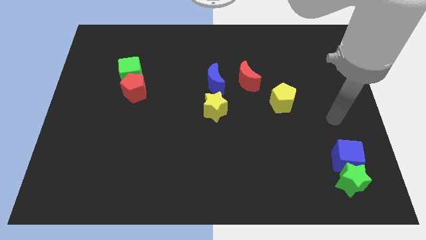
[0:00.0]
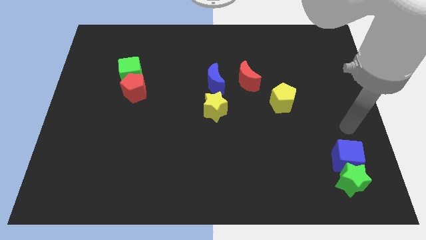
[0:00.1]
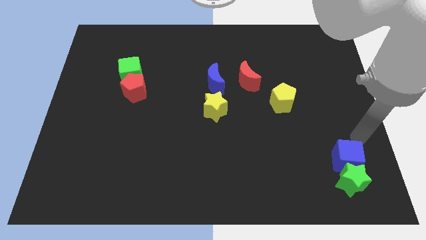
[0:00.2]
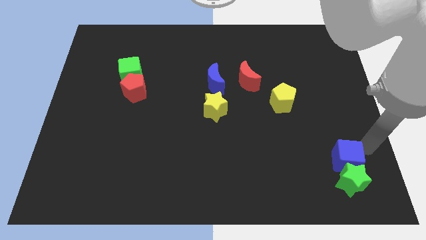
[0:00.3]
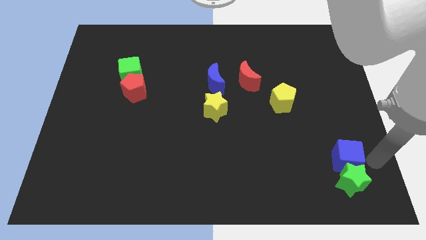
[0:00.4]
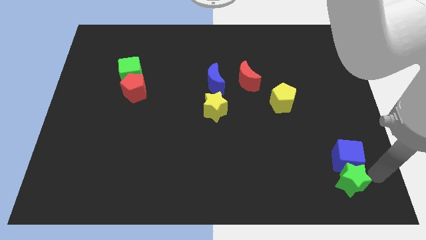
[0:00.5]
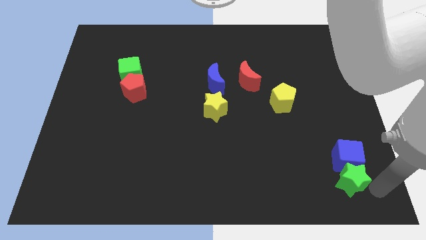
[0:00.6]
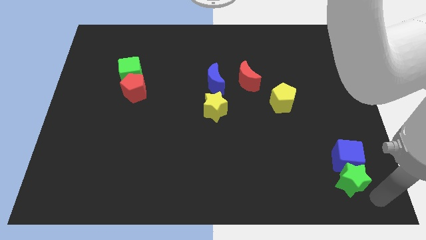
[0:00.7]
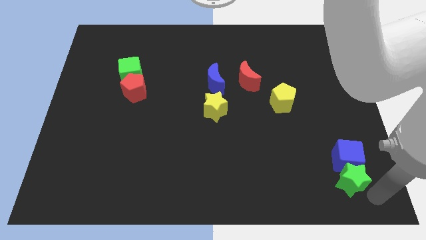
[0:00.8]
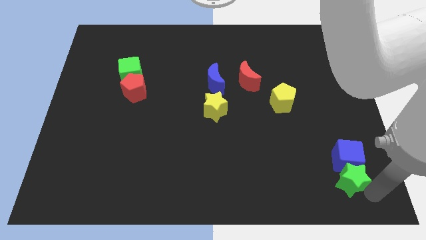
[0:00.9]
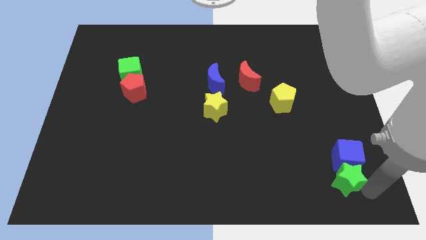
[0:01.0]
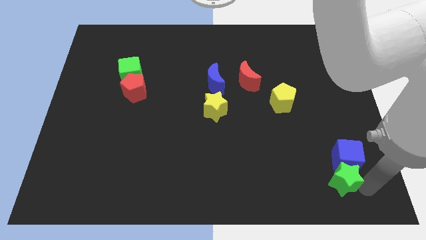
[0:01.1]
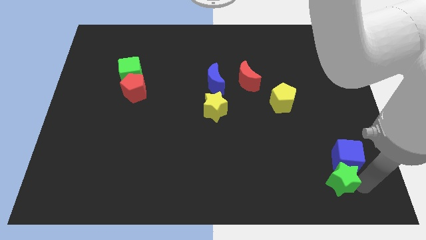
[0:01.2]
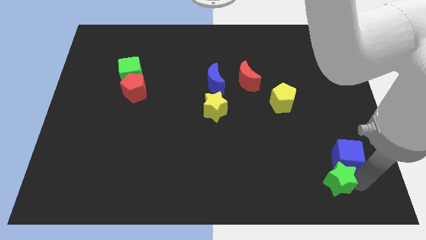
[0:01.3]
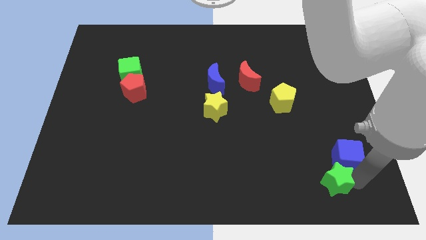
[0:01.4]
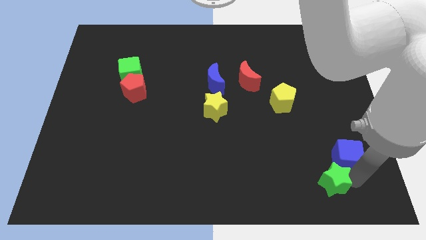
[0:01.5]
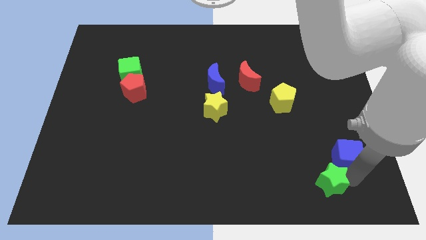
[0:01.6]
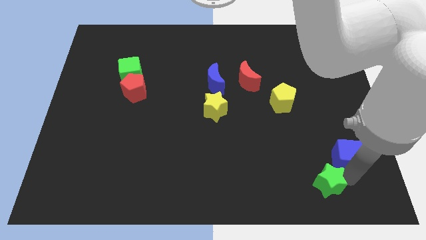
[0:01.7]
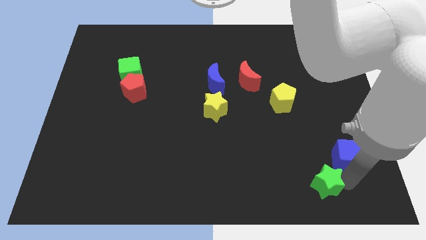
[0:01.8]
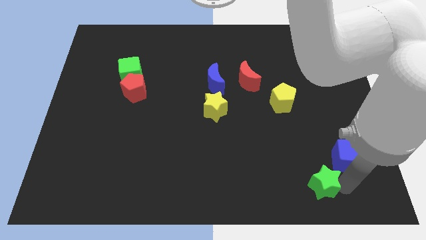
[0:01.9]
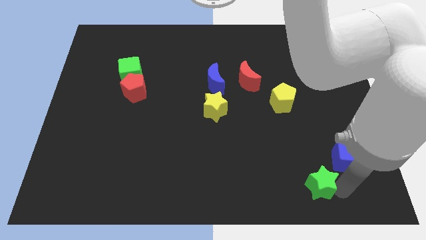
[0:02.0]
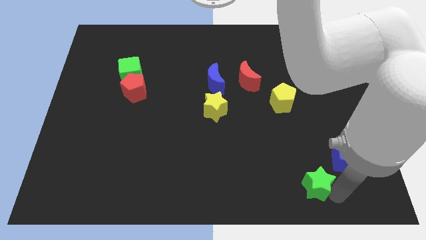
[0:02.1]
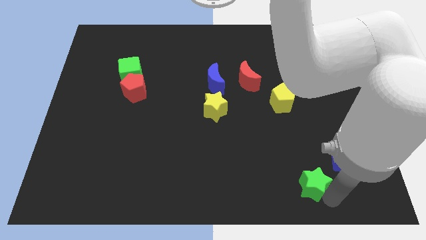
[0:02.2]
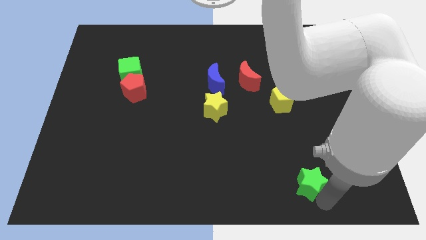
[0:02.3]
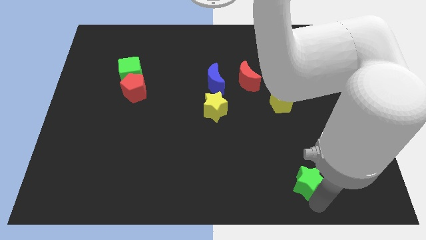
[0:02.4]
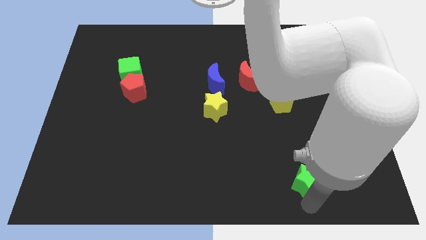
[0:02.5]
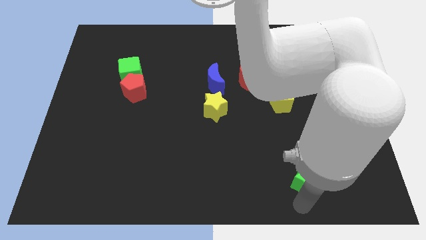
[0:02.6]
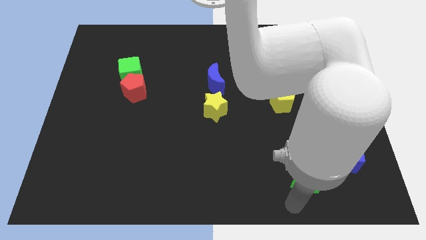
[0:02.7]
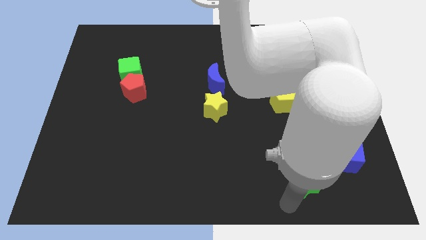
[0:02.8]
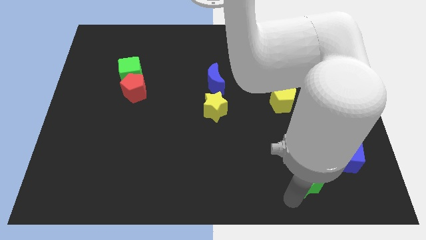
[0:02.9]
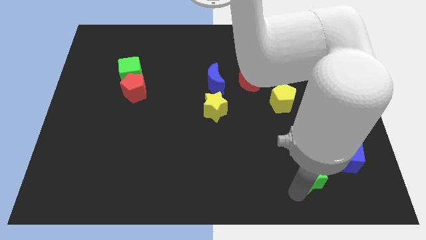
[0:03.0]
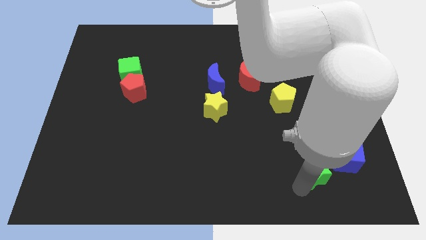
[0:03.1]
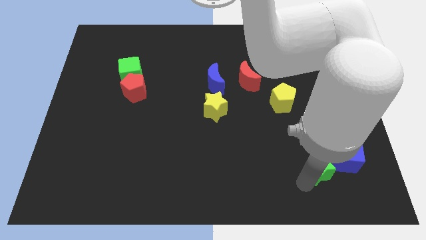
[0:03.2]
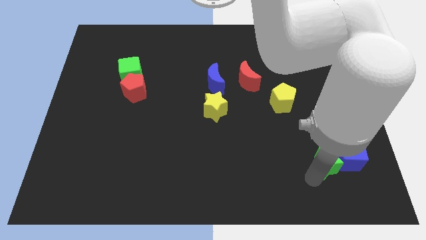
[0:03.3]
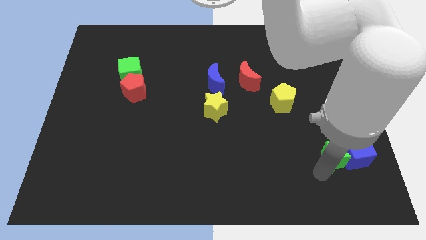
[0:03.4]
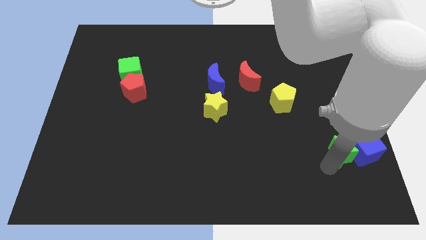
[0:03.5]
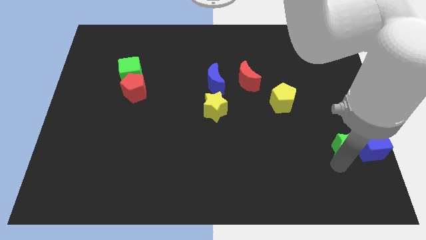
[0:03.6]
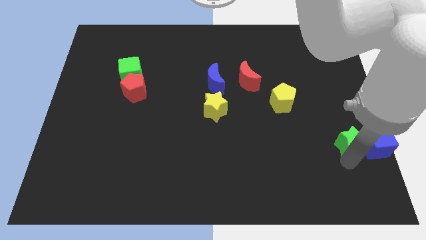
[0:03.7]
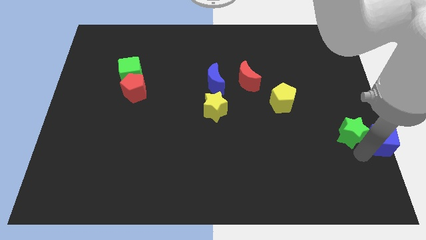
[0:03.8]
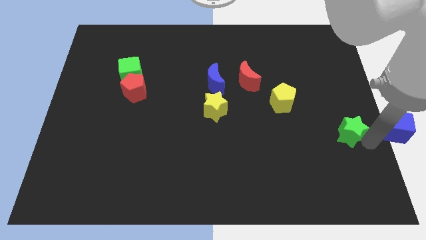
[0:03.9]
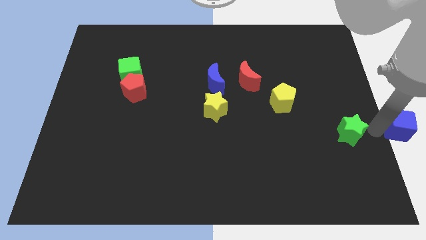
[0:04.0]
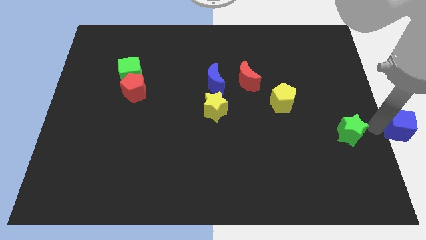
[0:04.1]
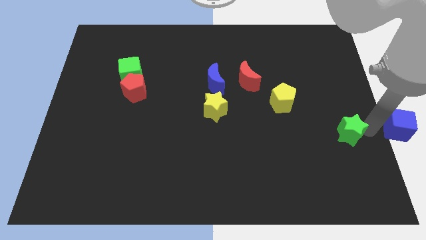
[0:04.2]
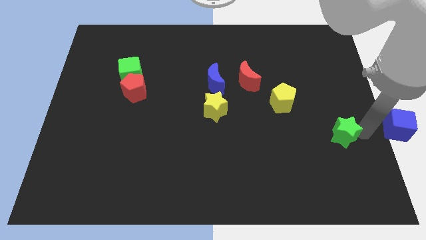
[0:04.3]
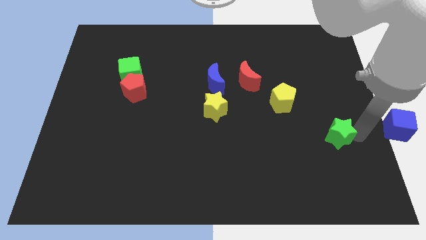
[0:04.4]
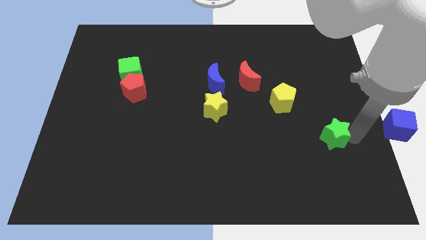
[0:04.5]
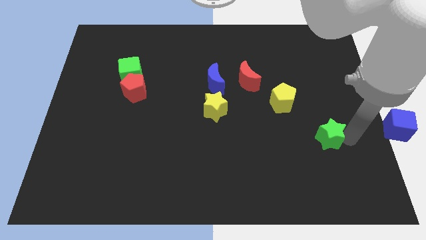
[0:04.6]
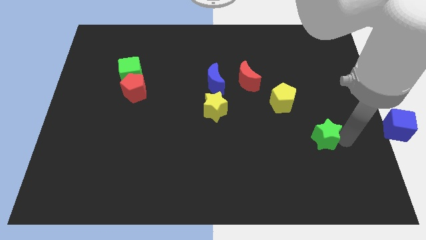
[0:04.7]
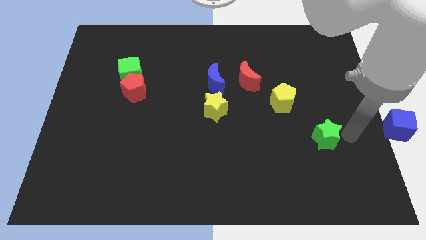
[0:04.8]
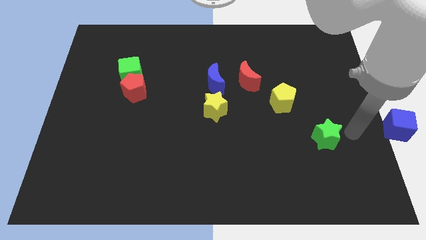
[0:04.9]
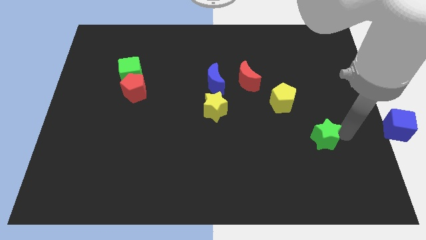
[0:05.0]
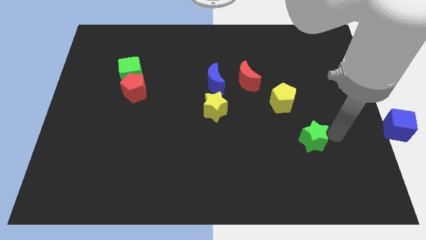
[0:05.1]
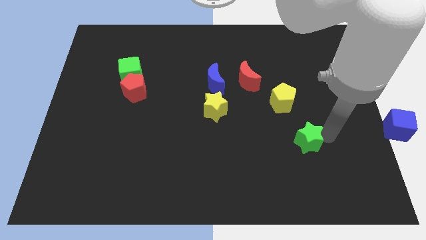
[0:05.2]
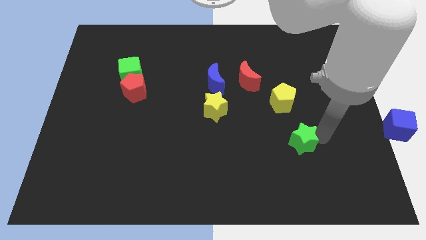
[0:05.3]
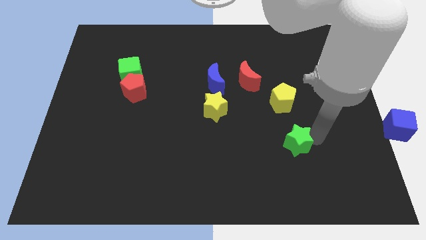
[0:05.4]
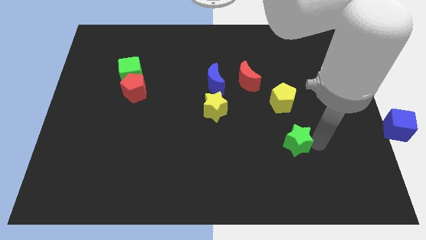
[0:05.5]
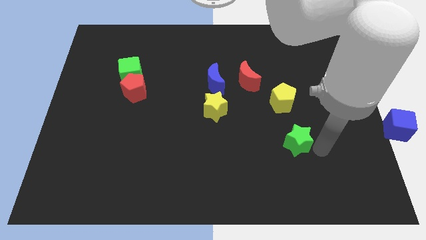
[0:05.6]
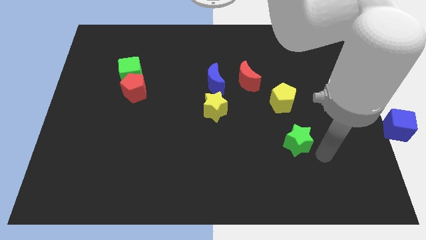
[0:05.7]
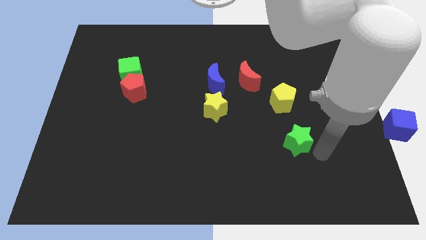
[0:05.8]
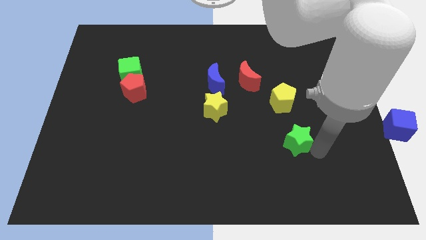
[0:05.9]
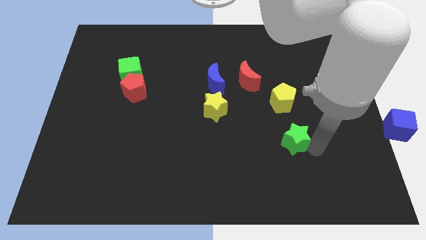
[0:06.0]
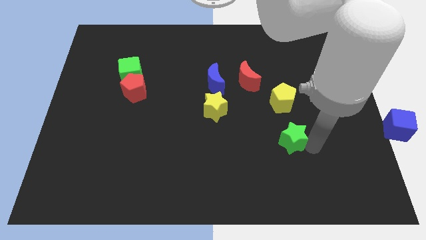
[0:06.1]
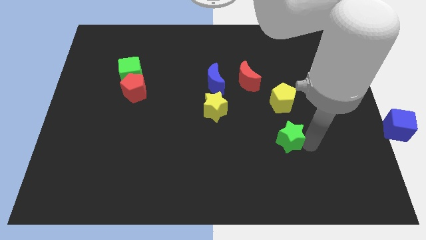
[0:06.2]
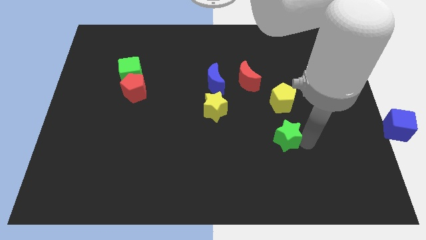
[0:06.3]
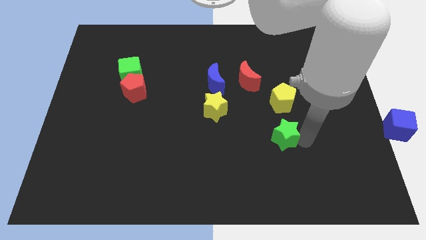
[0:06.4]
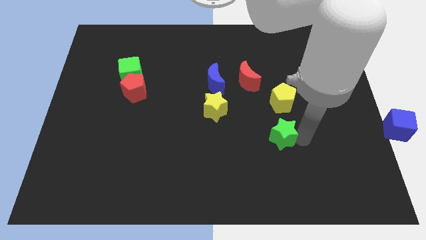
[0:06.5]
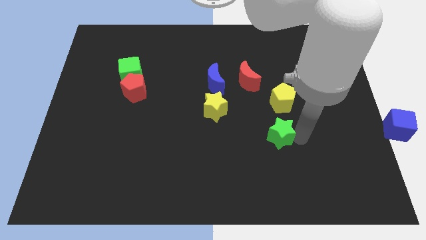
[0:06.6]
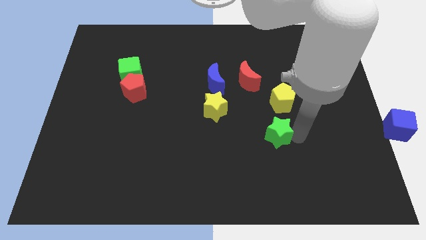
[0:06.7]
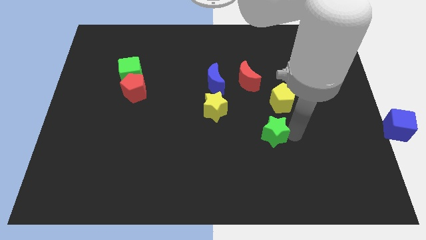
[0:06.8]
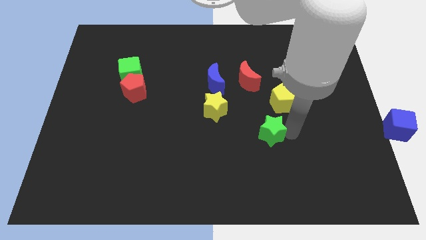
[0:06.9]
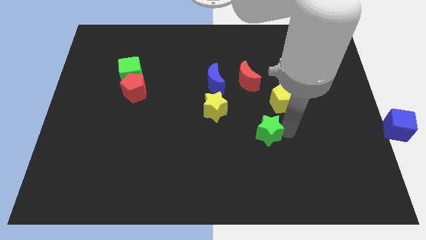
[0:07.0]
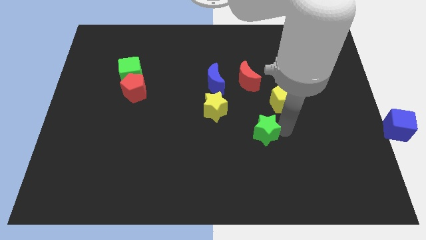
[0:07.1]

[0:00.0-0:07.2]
put the green star to the bottom side of the red moon
